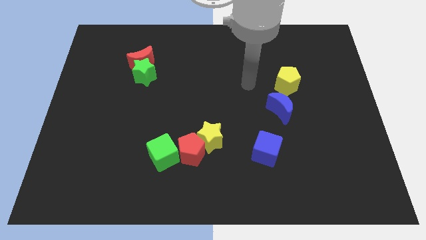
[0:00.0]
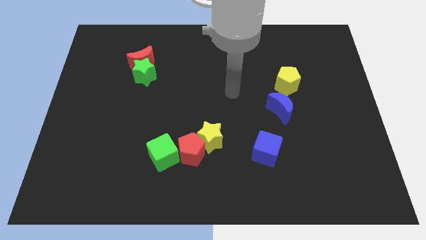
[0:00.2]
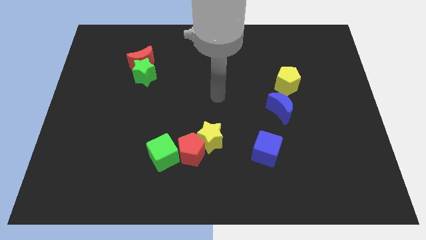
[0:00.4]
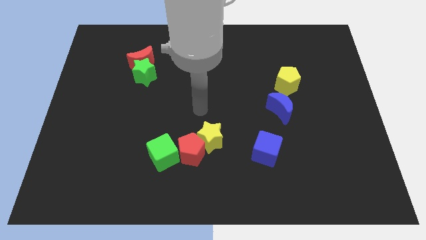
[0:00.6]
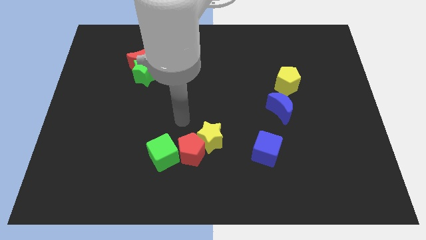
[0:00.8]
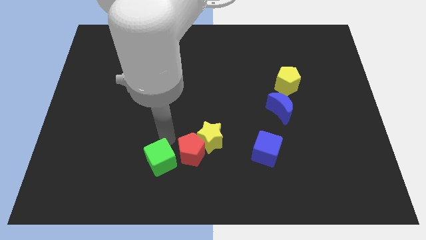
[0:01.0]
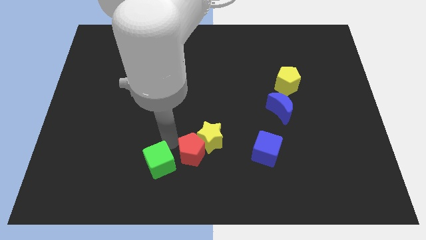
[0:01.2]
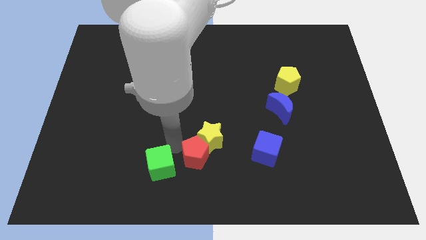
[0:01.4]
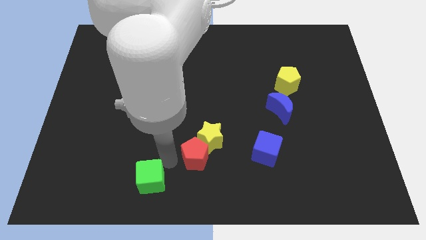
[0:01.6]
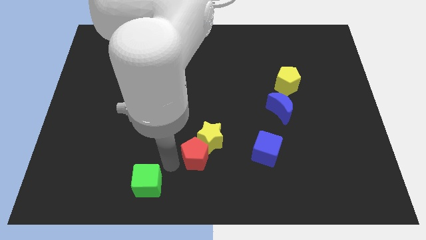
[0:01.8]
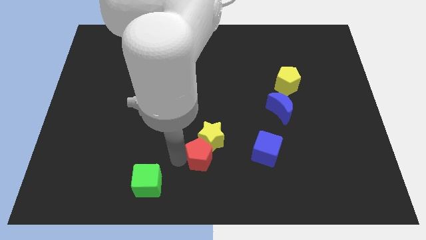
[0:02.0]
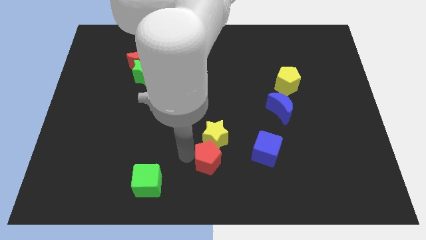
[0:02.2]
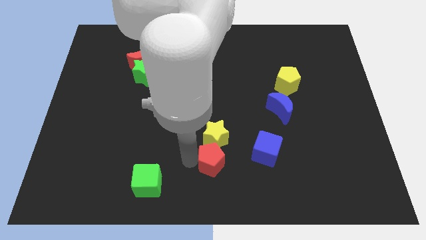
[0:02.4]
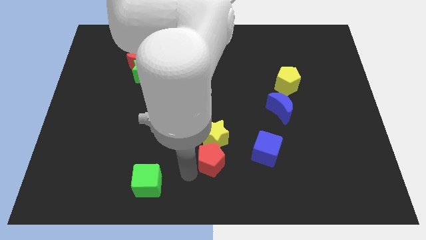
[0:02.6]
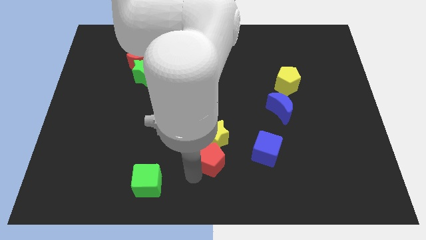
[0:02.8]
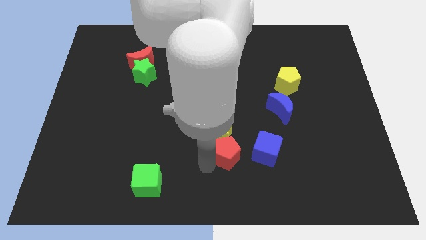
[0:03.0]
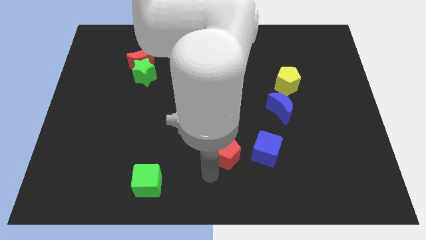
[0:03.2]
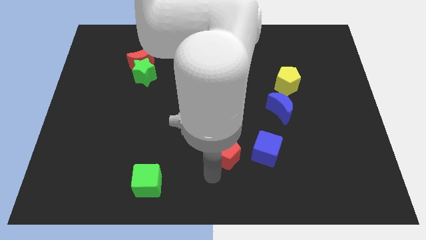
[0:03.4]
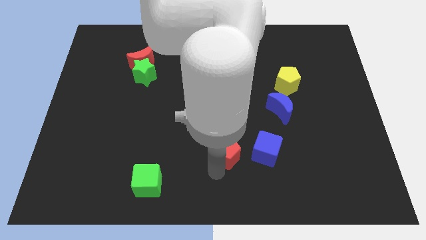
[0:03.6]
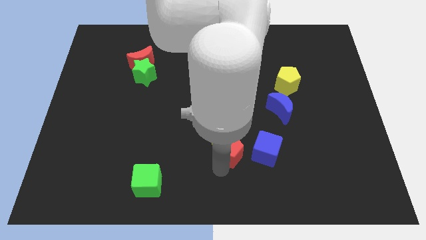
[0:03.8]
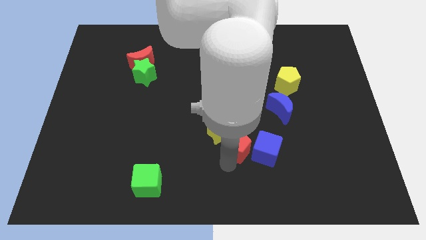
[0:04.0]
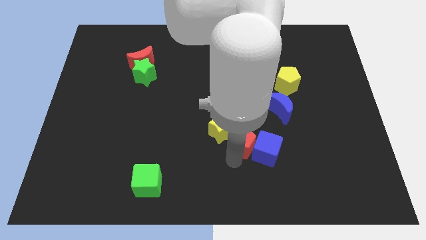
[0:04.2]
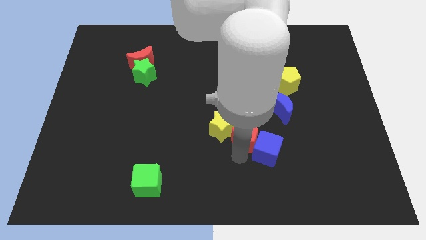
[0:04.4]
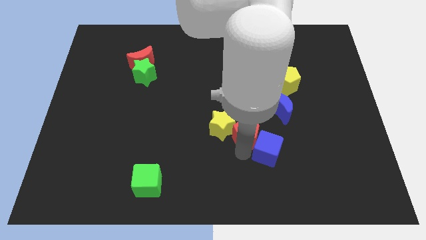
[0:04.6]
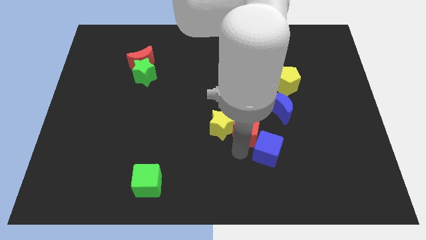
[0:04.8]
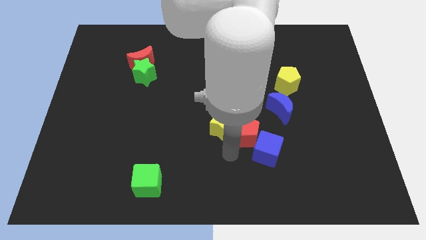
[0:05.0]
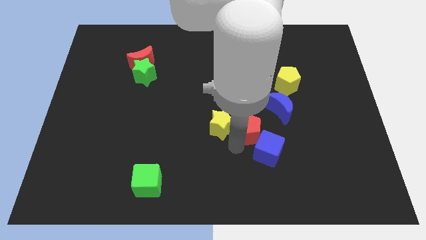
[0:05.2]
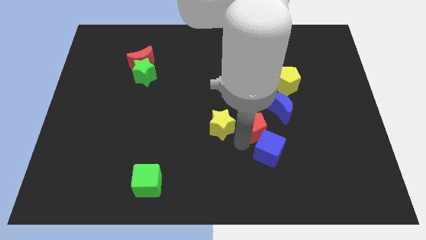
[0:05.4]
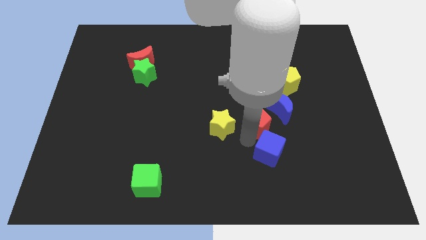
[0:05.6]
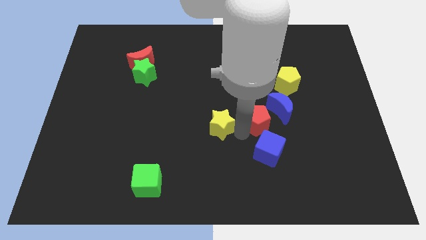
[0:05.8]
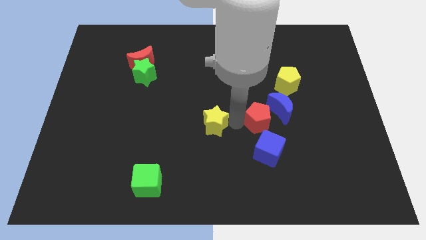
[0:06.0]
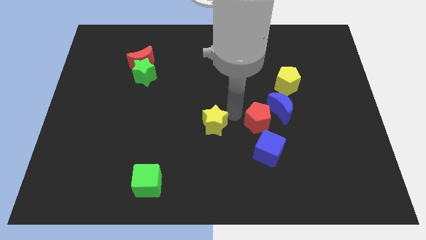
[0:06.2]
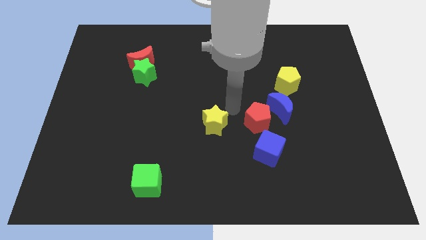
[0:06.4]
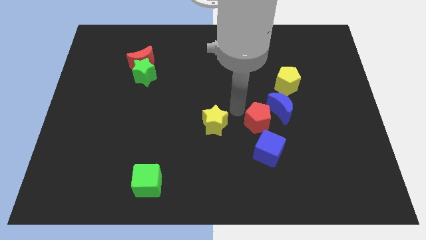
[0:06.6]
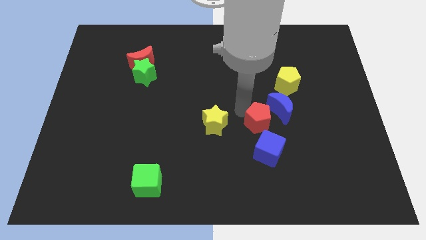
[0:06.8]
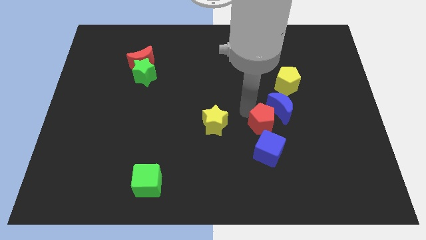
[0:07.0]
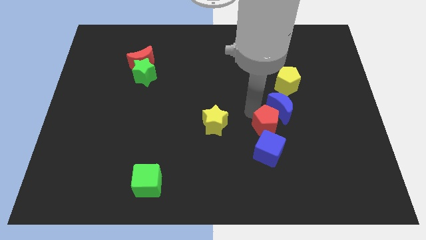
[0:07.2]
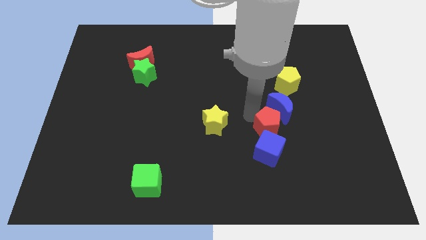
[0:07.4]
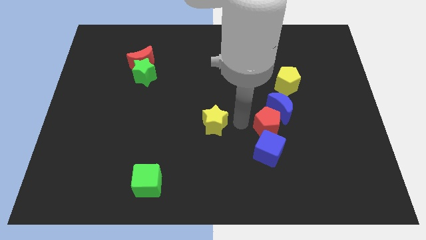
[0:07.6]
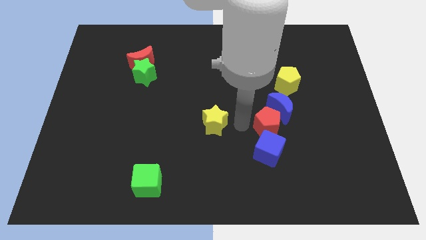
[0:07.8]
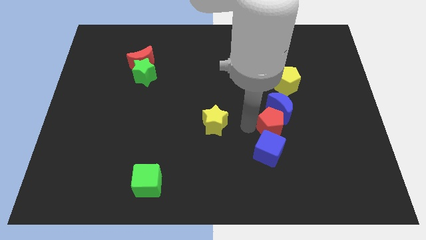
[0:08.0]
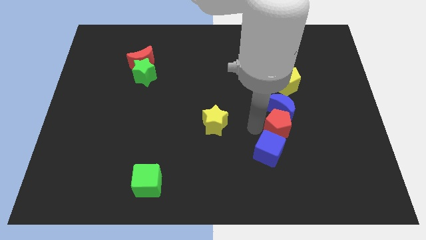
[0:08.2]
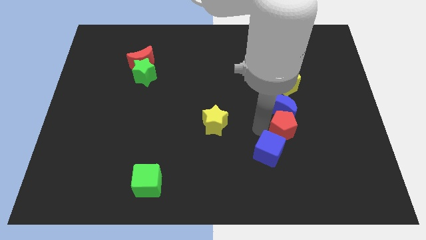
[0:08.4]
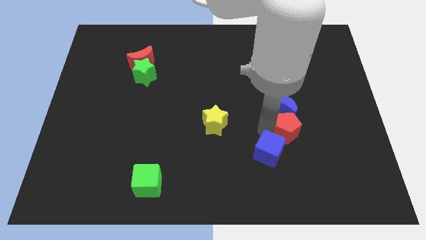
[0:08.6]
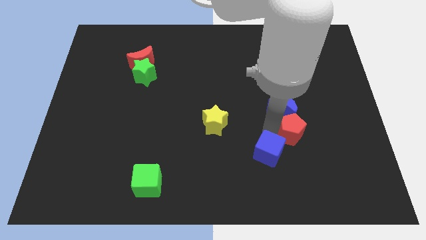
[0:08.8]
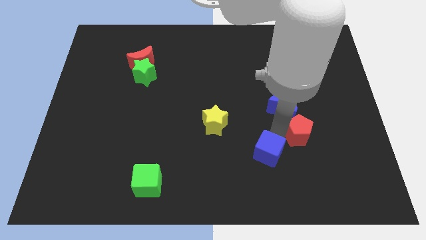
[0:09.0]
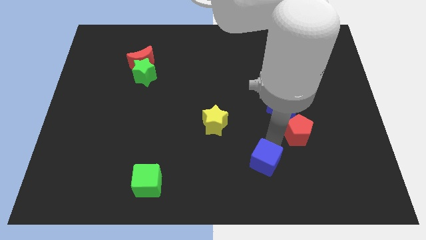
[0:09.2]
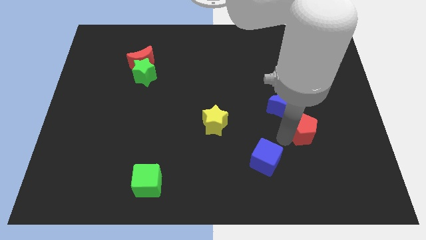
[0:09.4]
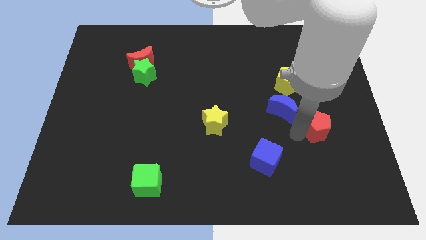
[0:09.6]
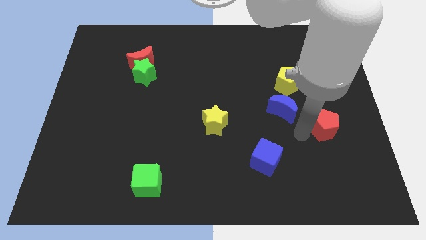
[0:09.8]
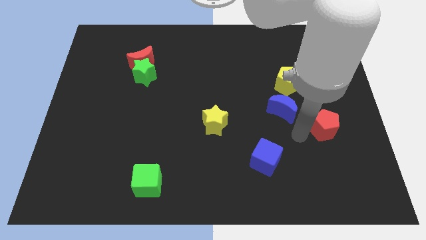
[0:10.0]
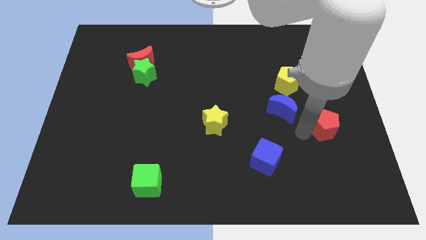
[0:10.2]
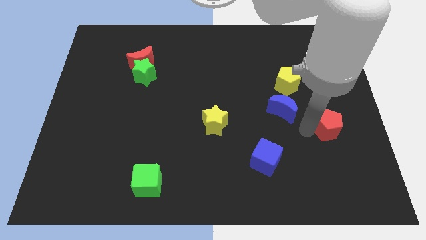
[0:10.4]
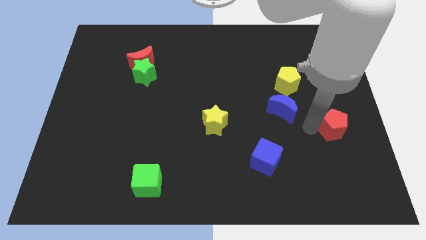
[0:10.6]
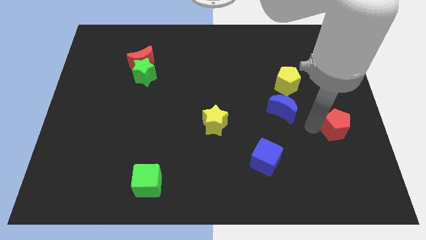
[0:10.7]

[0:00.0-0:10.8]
put the red pentagon to the right side of the board
